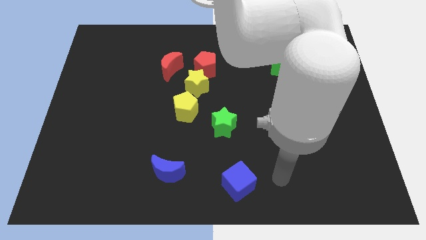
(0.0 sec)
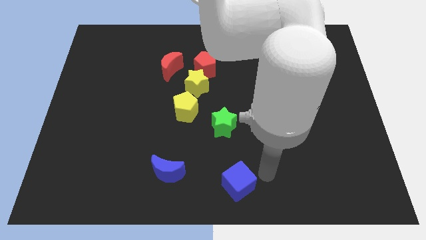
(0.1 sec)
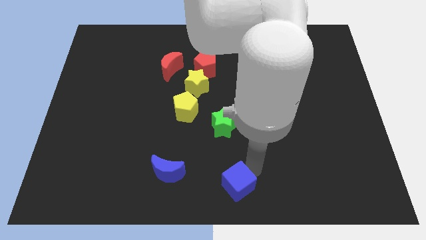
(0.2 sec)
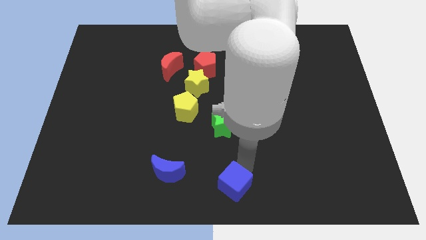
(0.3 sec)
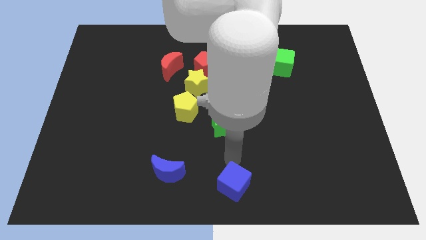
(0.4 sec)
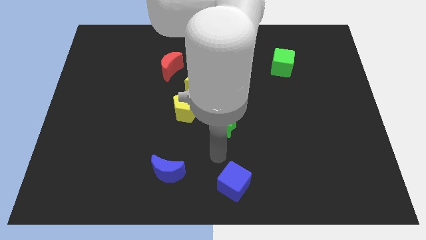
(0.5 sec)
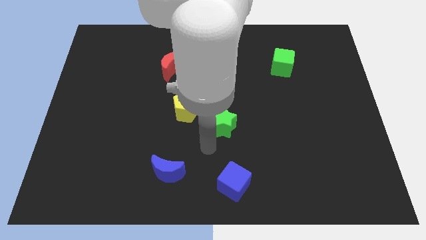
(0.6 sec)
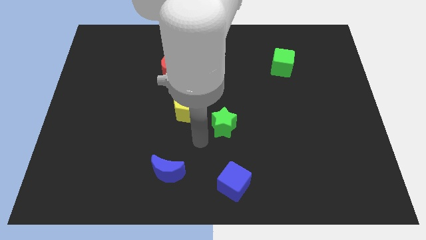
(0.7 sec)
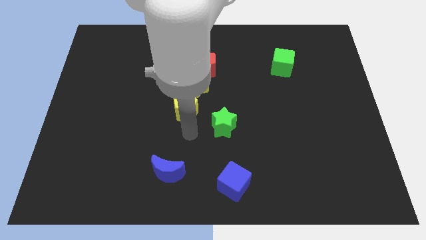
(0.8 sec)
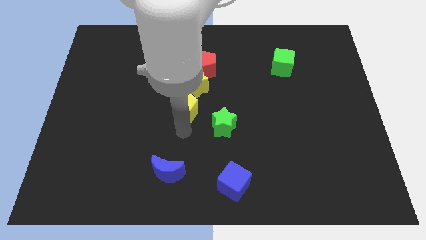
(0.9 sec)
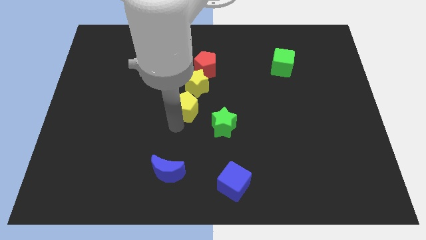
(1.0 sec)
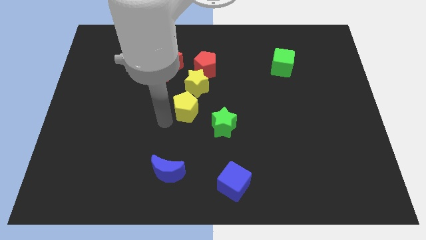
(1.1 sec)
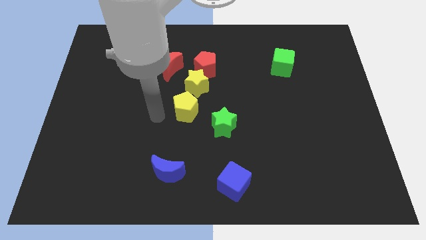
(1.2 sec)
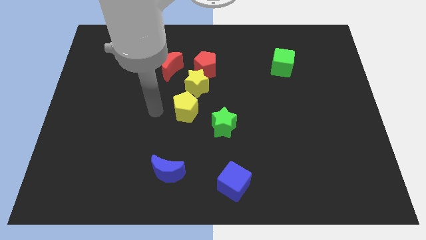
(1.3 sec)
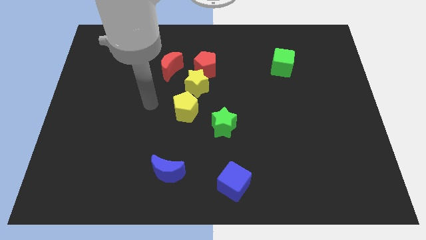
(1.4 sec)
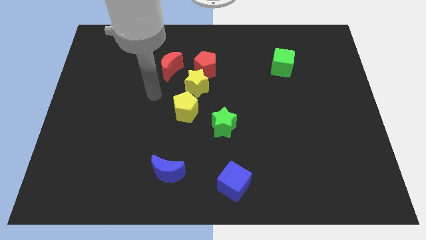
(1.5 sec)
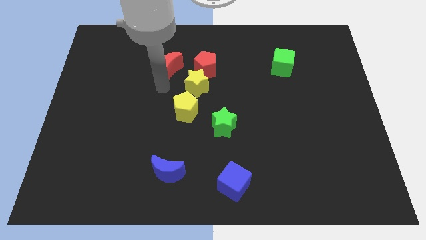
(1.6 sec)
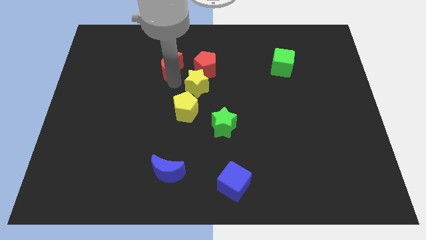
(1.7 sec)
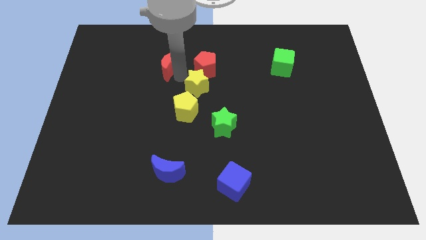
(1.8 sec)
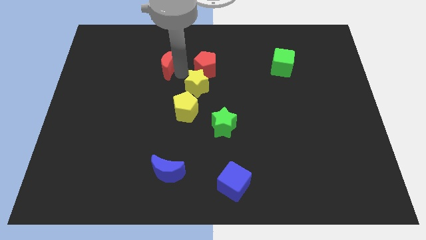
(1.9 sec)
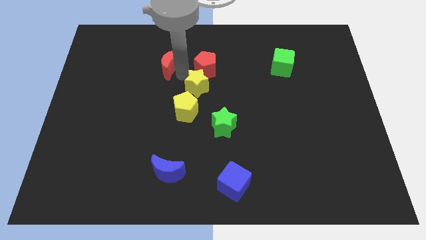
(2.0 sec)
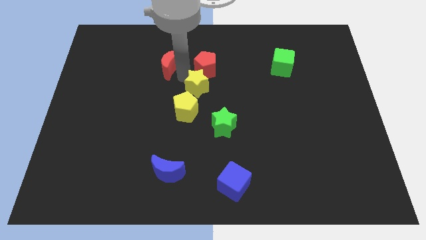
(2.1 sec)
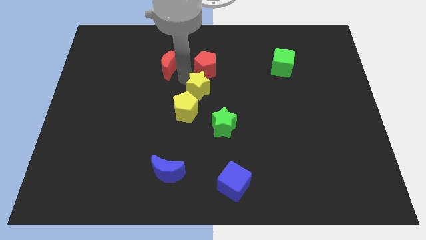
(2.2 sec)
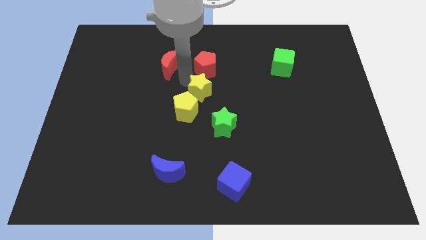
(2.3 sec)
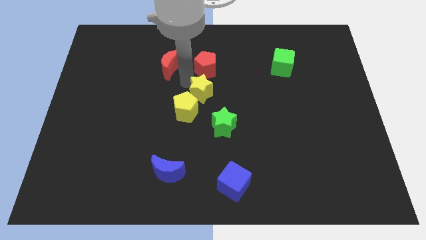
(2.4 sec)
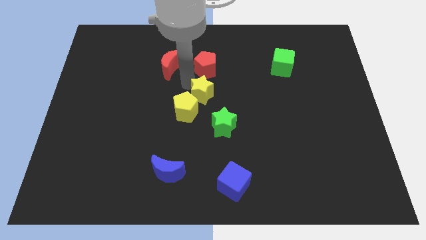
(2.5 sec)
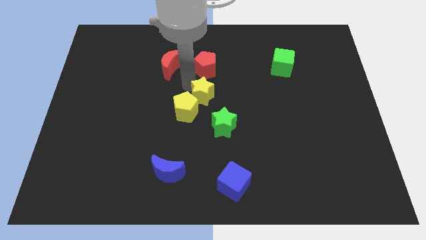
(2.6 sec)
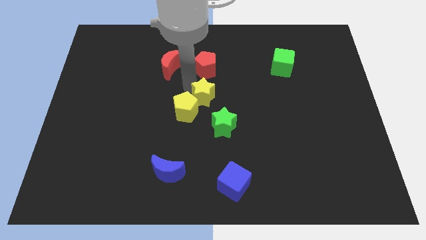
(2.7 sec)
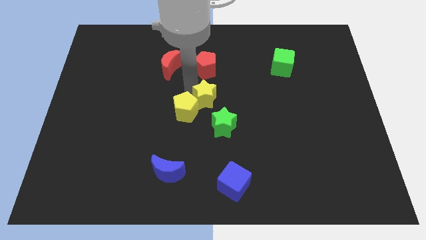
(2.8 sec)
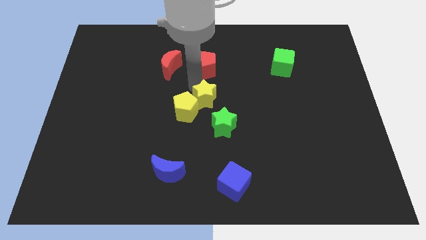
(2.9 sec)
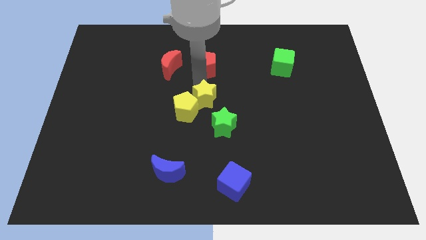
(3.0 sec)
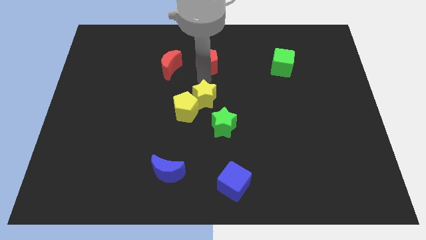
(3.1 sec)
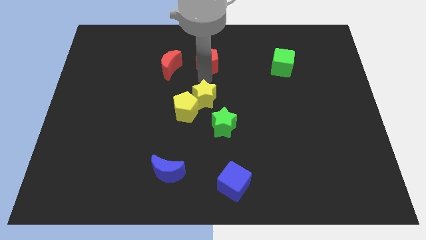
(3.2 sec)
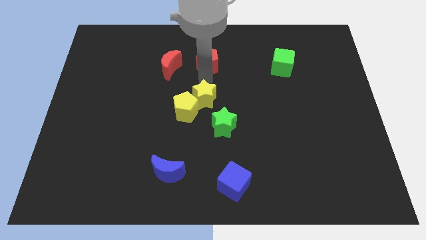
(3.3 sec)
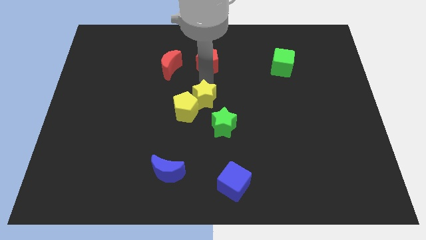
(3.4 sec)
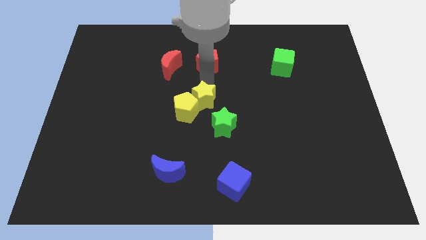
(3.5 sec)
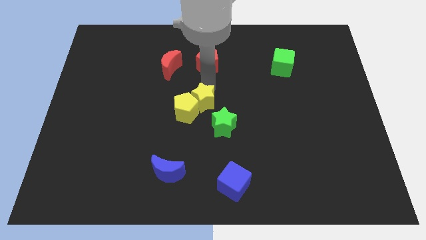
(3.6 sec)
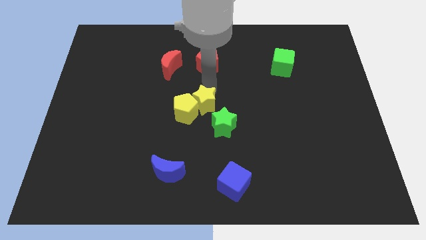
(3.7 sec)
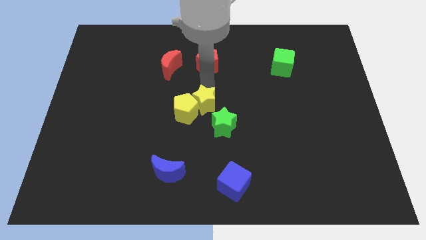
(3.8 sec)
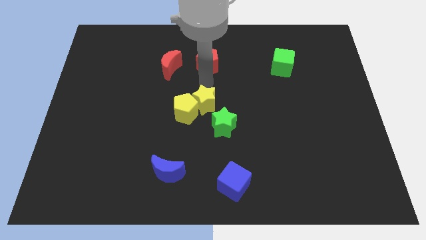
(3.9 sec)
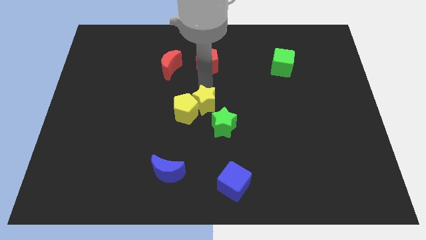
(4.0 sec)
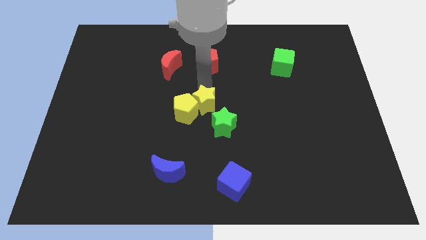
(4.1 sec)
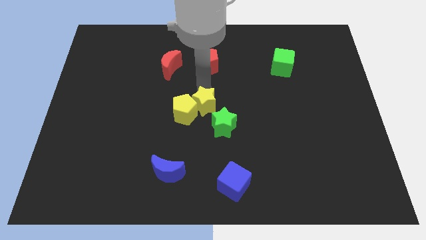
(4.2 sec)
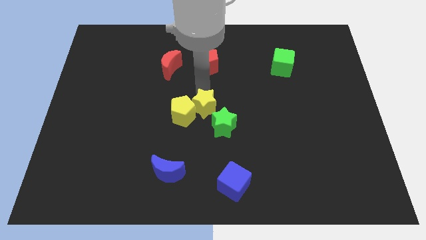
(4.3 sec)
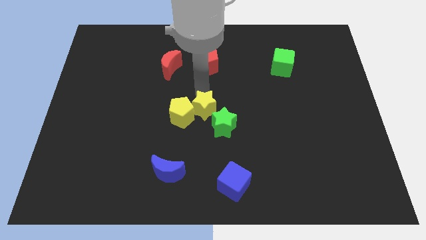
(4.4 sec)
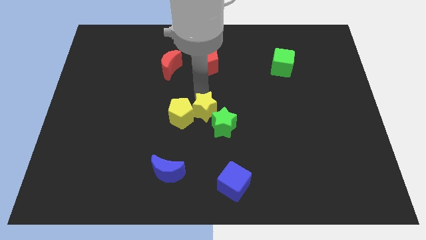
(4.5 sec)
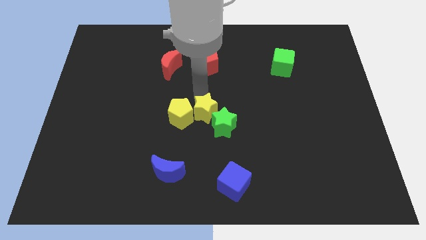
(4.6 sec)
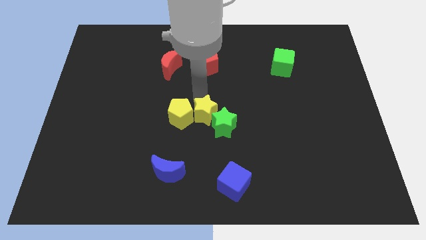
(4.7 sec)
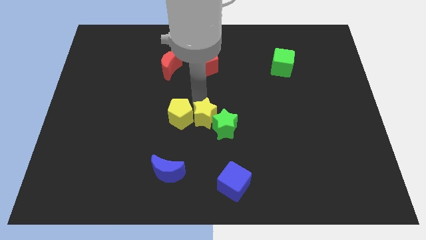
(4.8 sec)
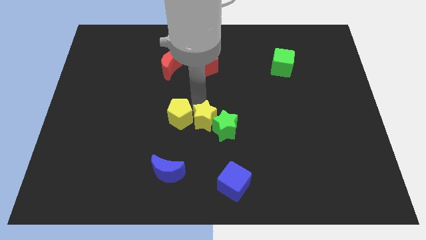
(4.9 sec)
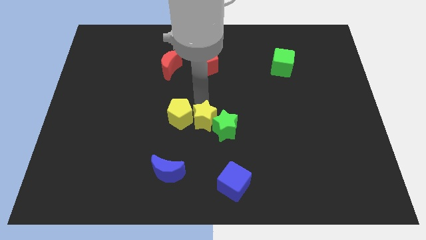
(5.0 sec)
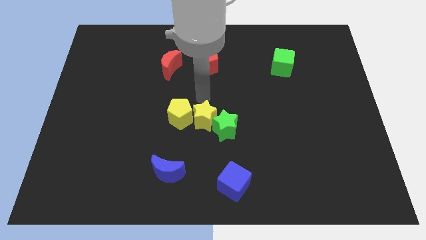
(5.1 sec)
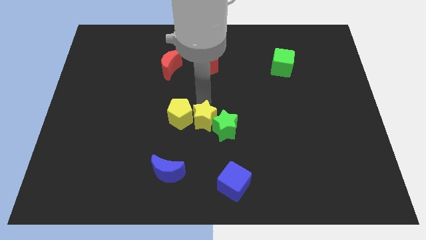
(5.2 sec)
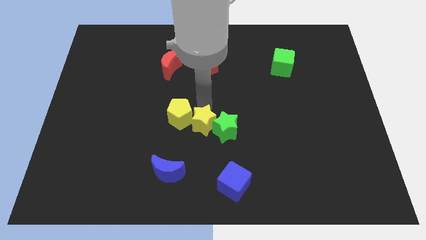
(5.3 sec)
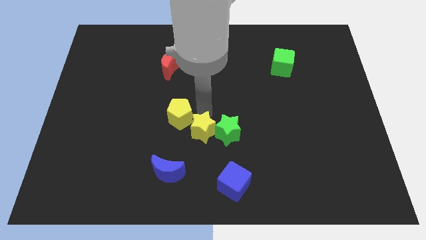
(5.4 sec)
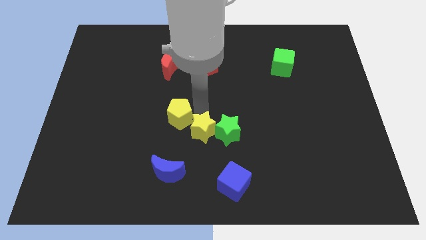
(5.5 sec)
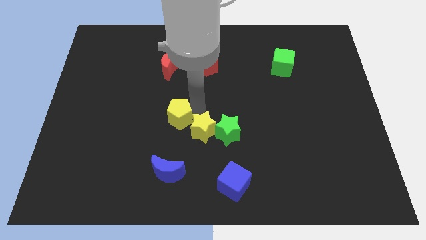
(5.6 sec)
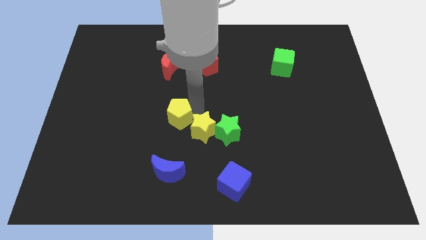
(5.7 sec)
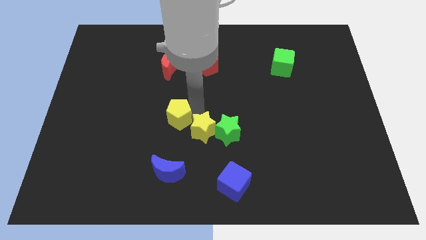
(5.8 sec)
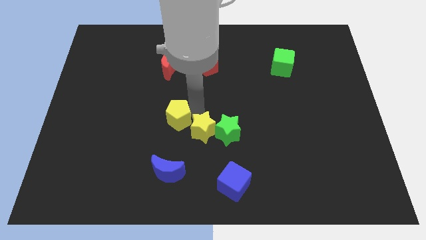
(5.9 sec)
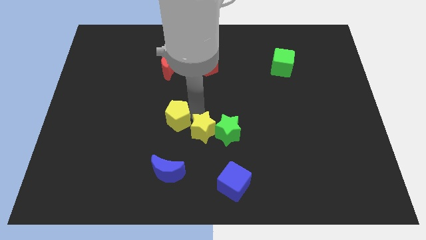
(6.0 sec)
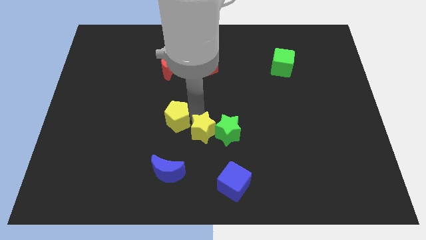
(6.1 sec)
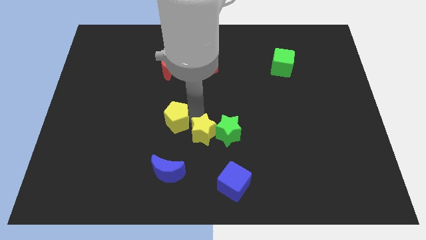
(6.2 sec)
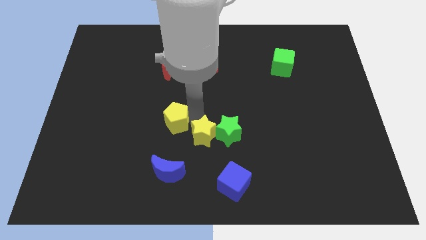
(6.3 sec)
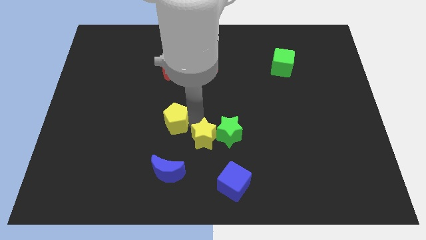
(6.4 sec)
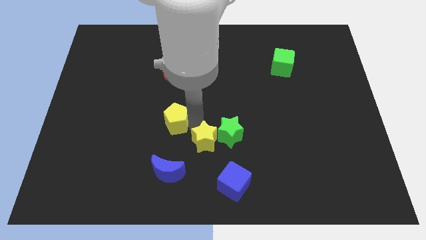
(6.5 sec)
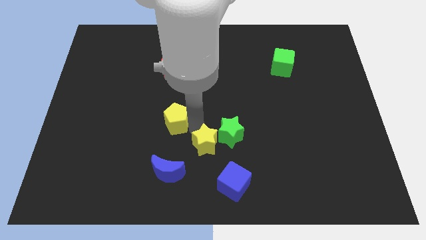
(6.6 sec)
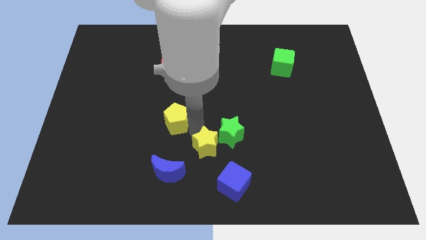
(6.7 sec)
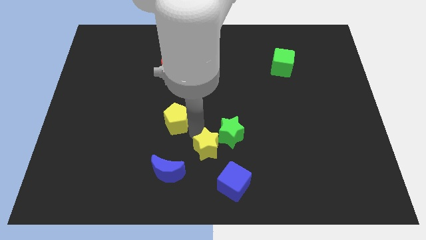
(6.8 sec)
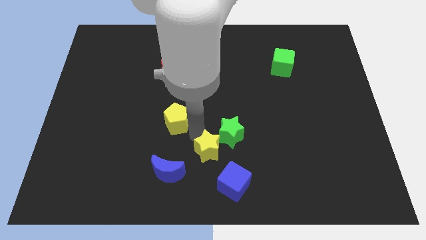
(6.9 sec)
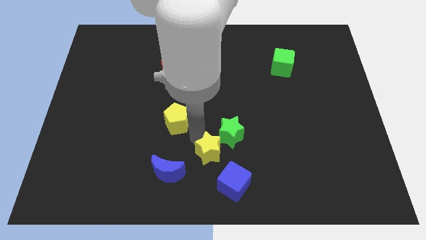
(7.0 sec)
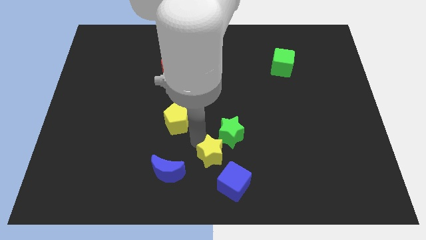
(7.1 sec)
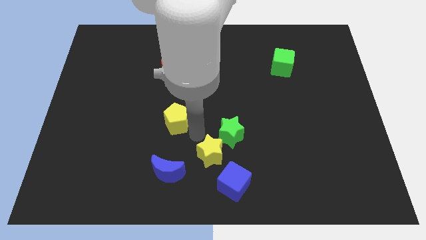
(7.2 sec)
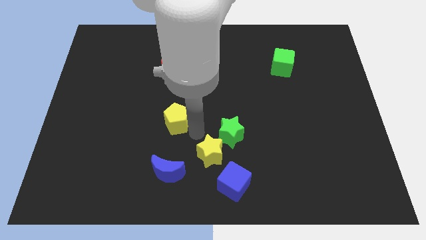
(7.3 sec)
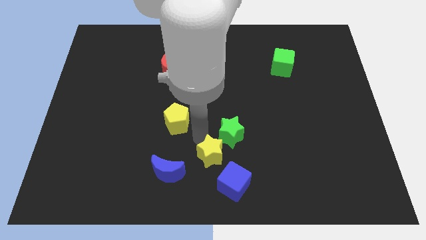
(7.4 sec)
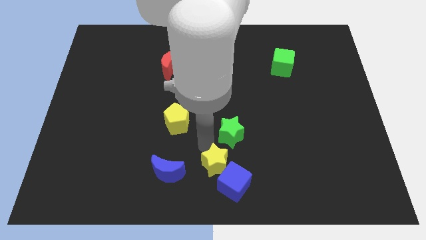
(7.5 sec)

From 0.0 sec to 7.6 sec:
push the yellow star next to the blue cube
